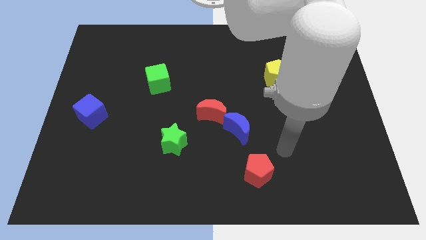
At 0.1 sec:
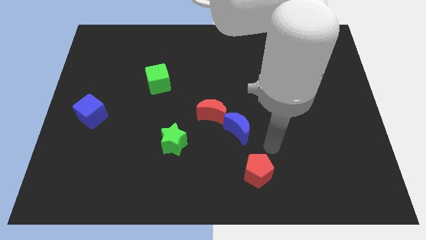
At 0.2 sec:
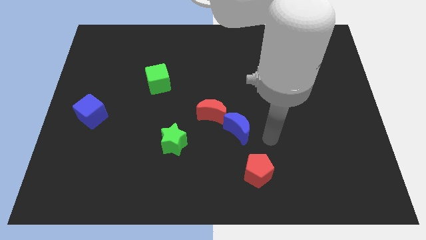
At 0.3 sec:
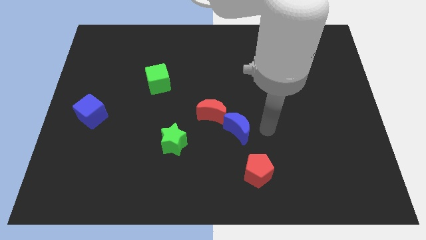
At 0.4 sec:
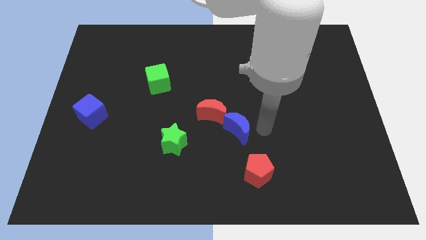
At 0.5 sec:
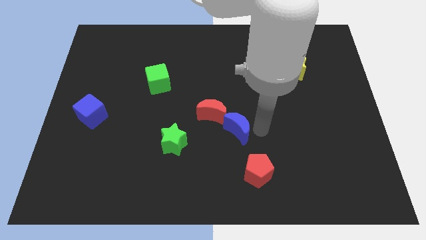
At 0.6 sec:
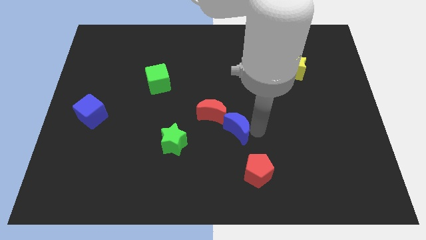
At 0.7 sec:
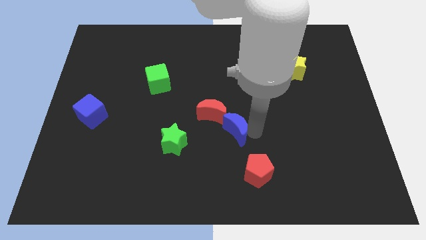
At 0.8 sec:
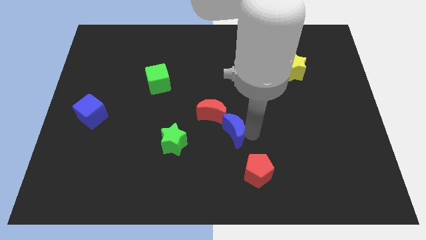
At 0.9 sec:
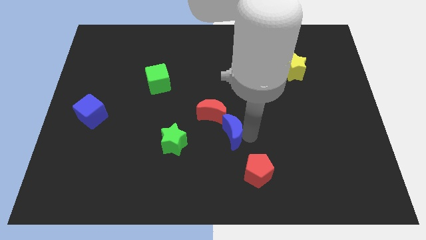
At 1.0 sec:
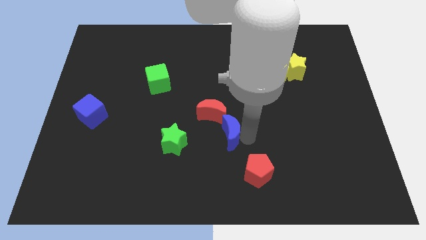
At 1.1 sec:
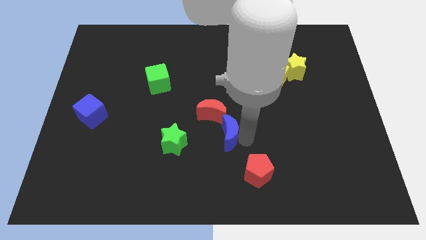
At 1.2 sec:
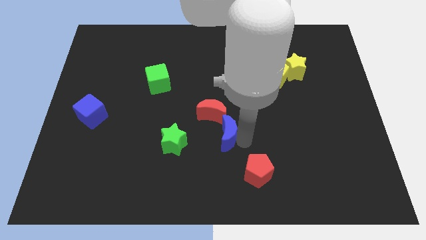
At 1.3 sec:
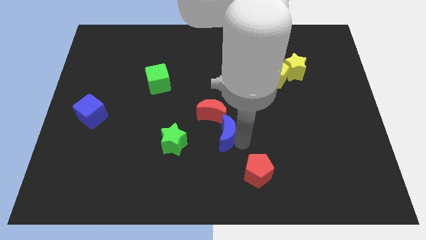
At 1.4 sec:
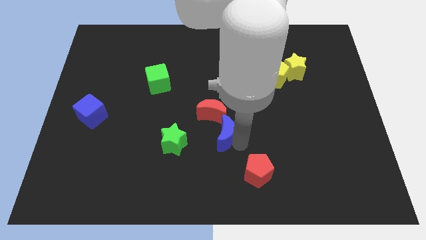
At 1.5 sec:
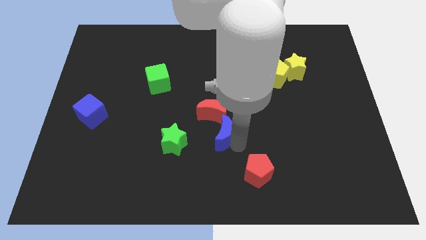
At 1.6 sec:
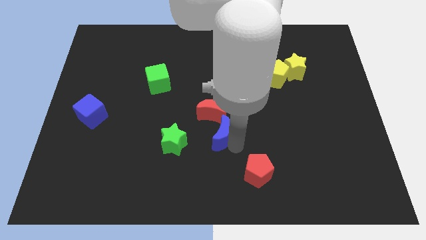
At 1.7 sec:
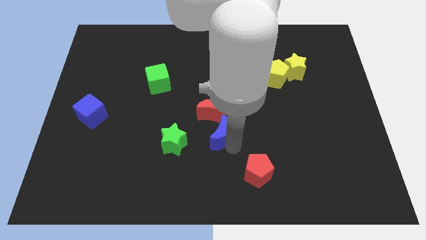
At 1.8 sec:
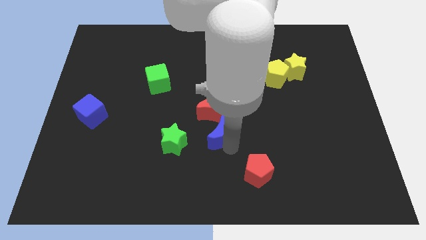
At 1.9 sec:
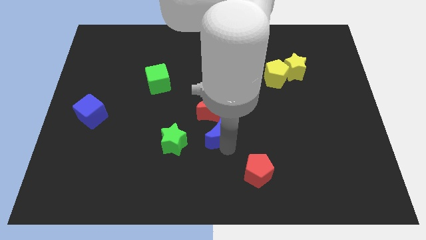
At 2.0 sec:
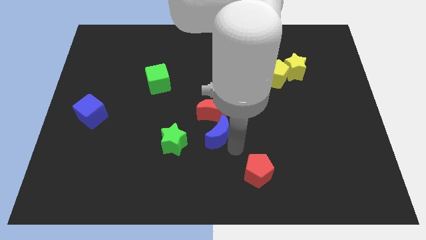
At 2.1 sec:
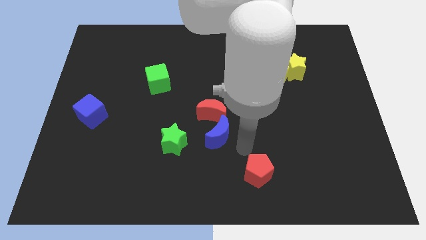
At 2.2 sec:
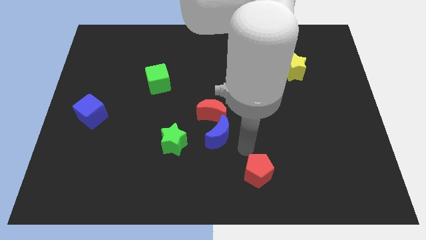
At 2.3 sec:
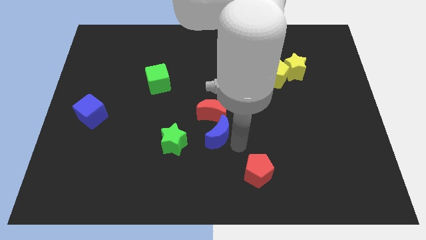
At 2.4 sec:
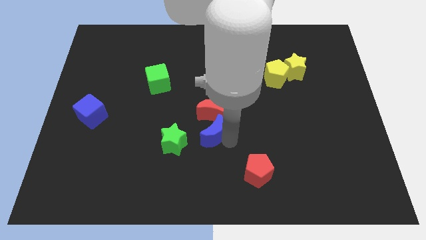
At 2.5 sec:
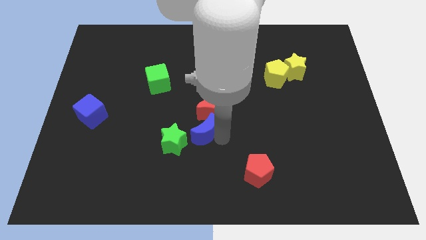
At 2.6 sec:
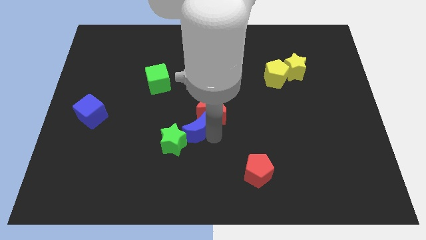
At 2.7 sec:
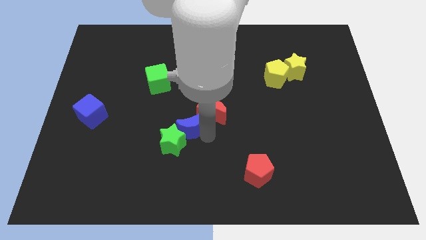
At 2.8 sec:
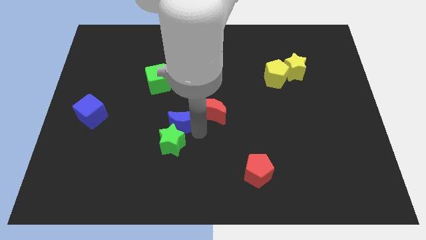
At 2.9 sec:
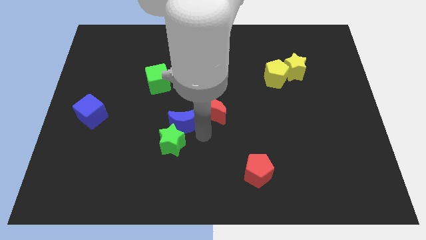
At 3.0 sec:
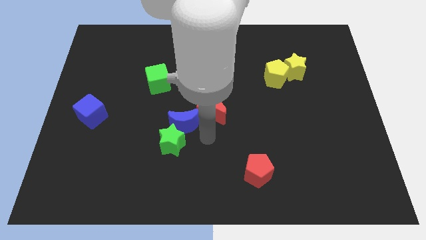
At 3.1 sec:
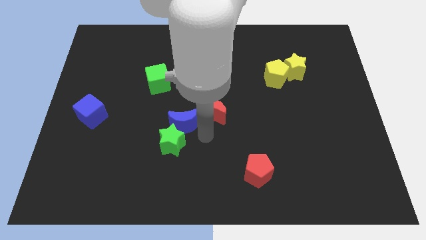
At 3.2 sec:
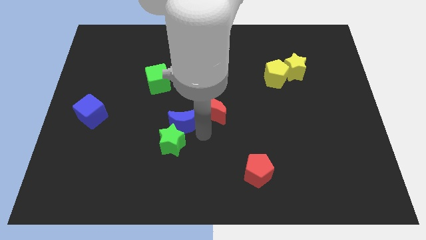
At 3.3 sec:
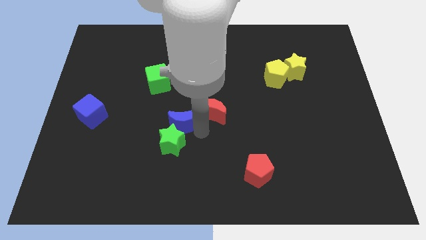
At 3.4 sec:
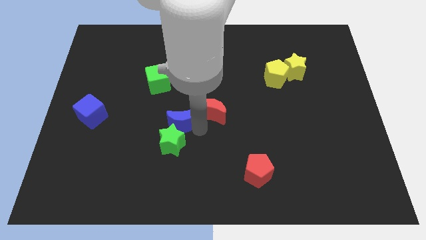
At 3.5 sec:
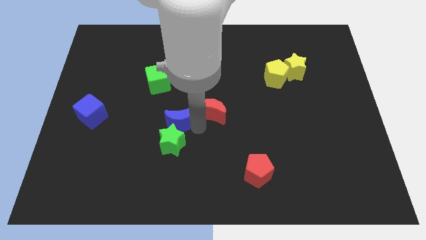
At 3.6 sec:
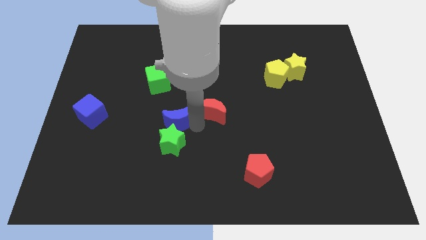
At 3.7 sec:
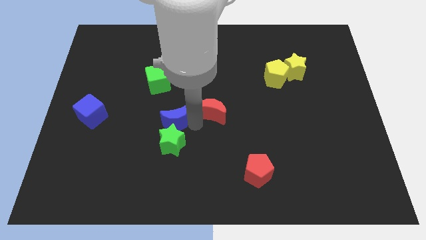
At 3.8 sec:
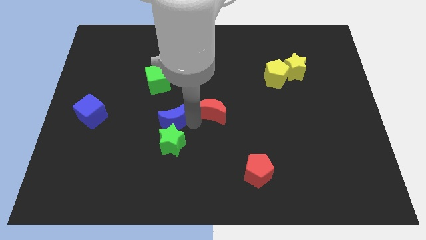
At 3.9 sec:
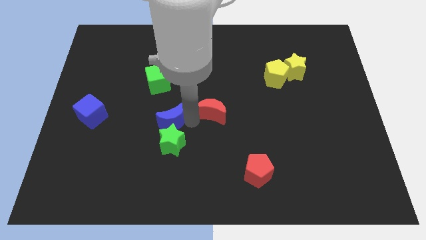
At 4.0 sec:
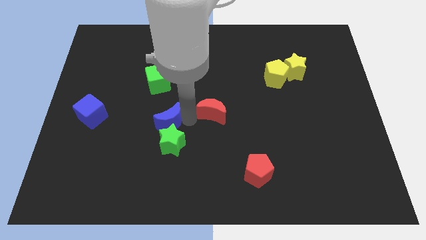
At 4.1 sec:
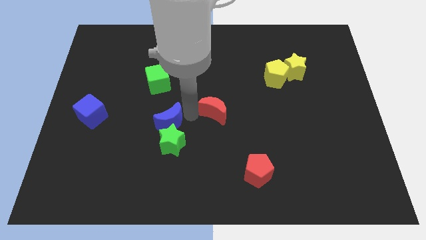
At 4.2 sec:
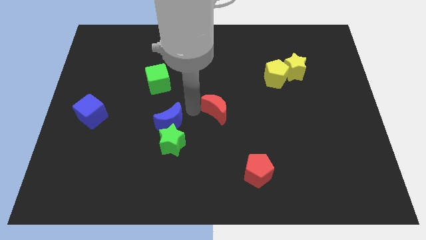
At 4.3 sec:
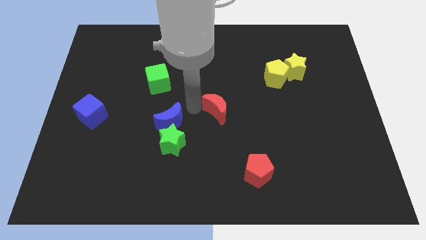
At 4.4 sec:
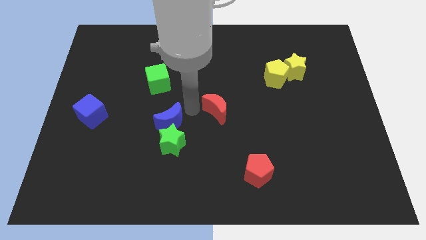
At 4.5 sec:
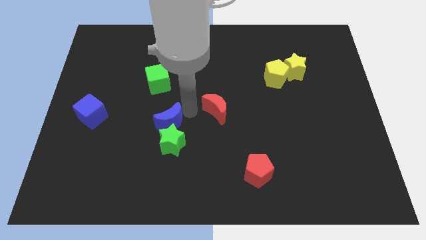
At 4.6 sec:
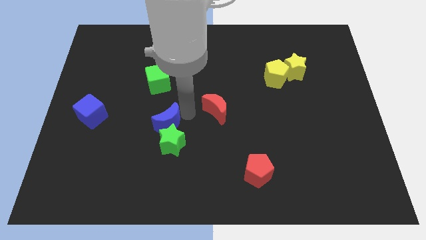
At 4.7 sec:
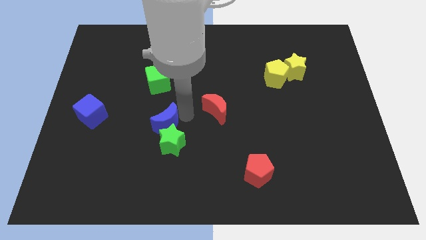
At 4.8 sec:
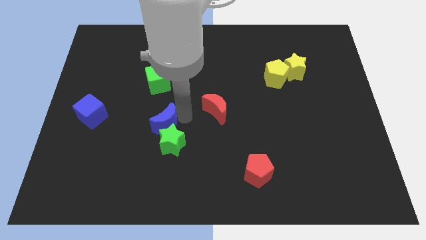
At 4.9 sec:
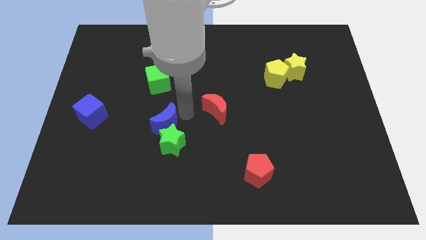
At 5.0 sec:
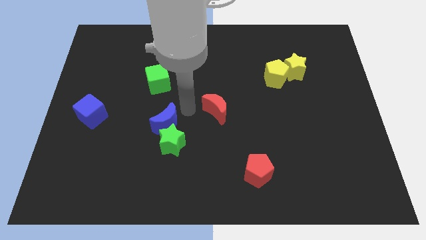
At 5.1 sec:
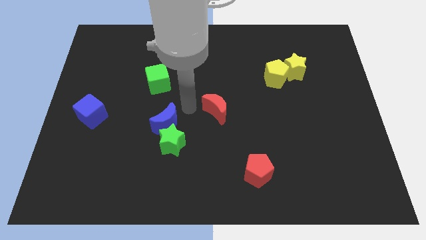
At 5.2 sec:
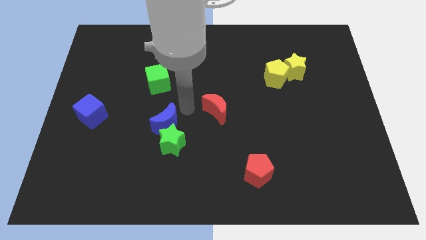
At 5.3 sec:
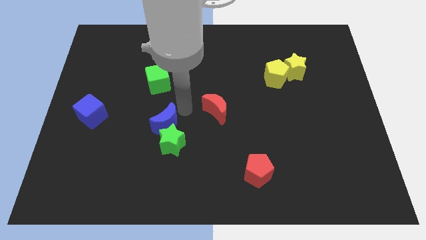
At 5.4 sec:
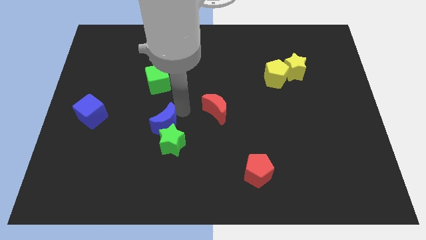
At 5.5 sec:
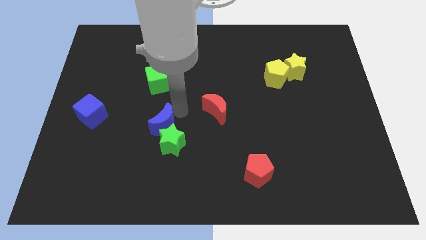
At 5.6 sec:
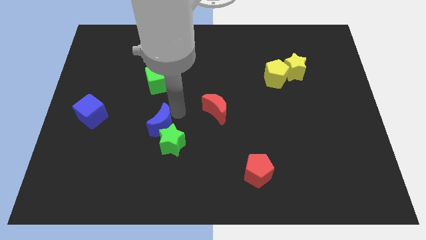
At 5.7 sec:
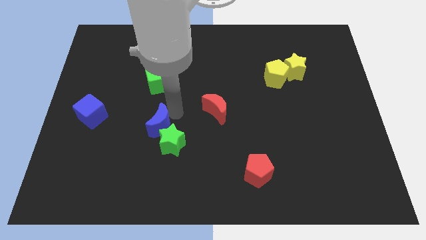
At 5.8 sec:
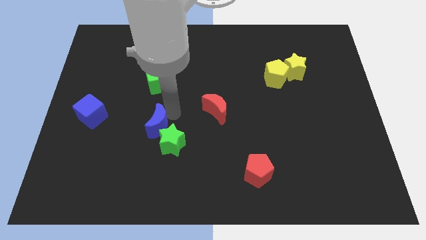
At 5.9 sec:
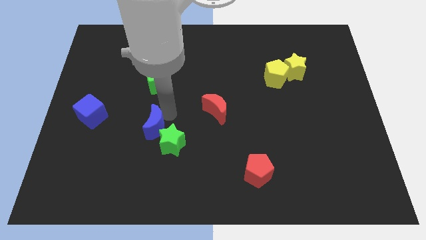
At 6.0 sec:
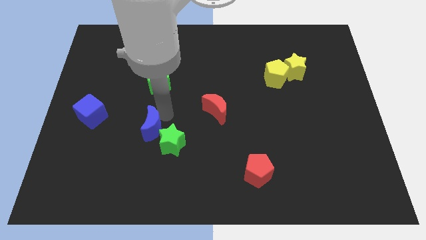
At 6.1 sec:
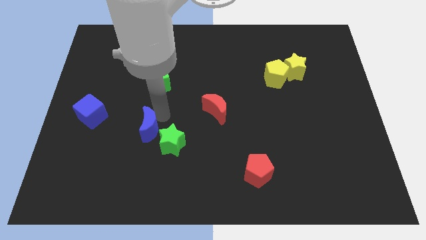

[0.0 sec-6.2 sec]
push the blue moon left

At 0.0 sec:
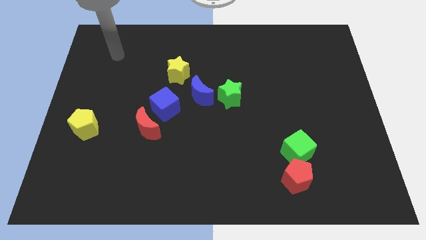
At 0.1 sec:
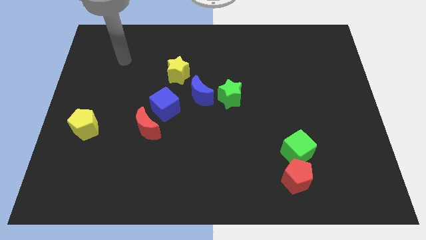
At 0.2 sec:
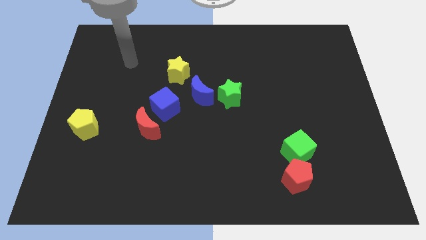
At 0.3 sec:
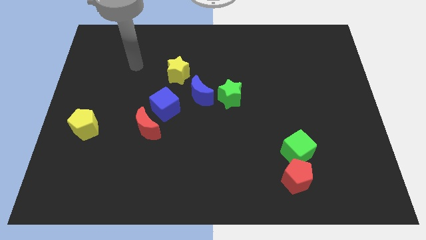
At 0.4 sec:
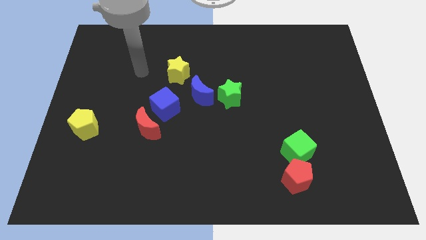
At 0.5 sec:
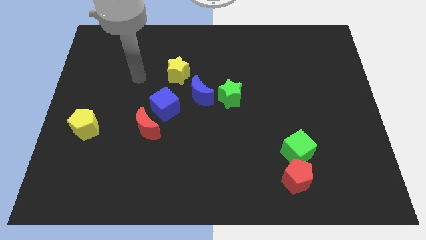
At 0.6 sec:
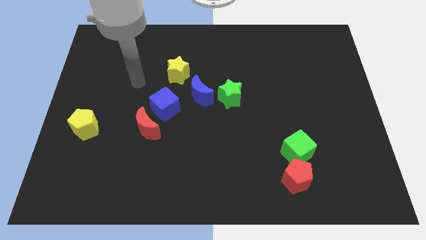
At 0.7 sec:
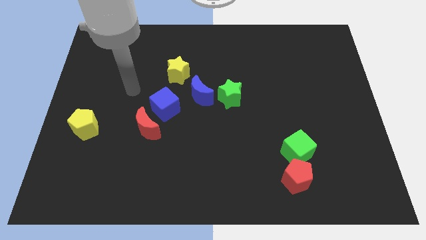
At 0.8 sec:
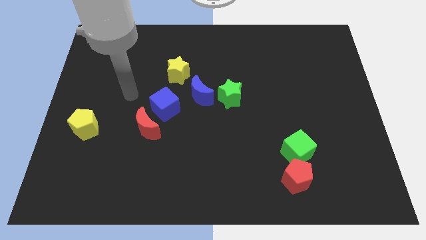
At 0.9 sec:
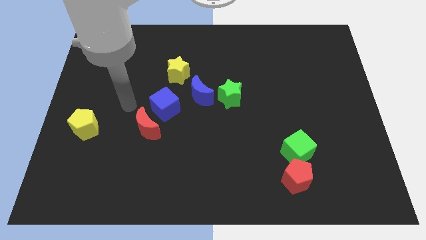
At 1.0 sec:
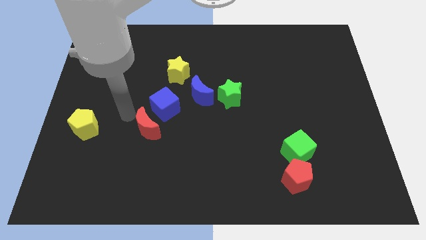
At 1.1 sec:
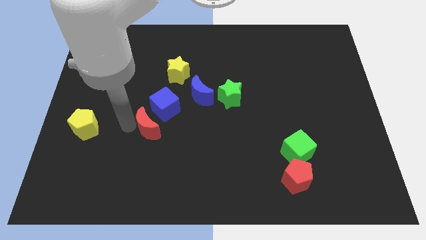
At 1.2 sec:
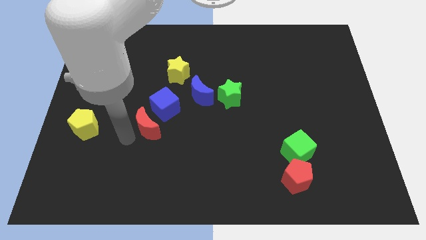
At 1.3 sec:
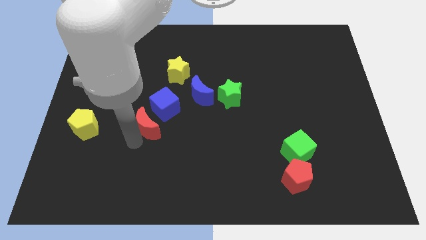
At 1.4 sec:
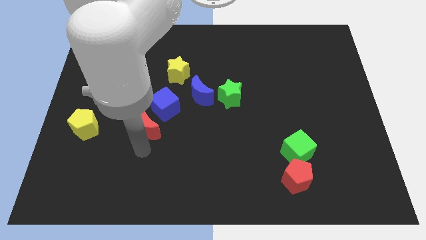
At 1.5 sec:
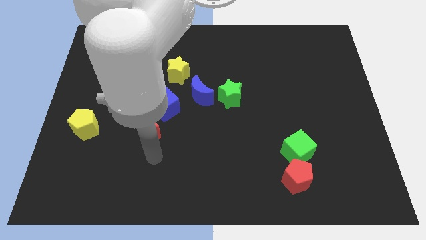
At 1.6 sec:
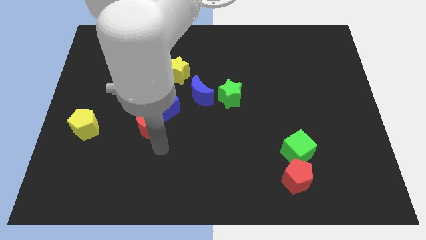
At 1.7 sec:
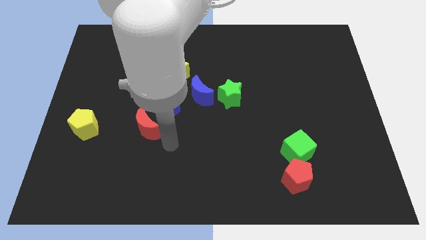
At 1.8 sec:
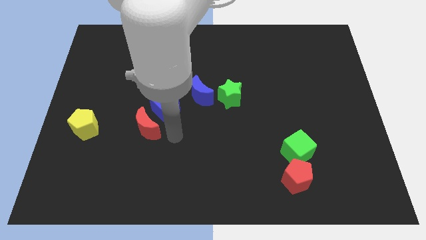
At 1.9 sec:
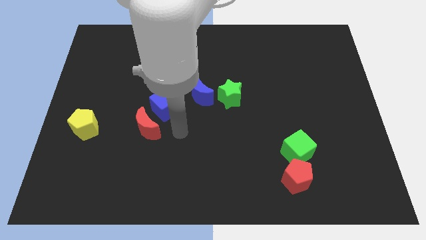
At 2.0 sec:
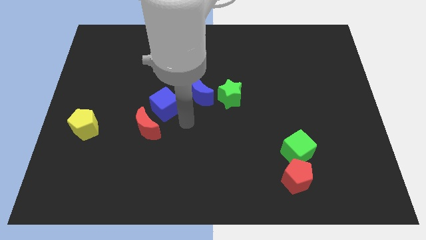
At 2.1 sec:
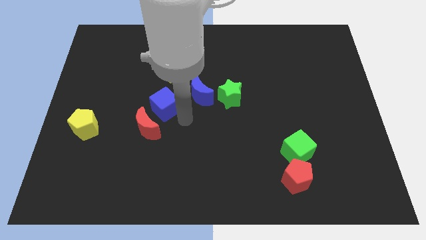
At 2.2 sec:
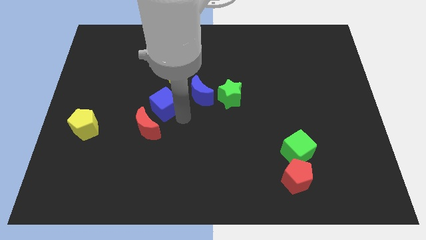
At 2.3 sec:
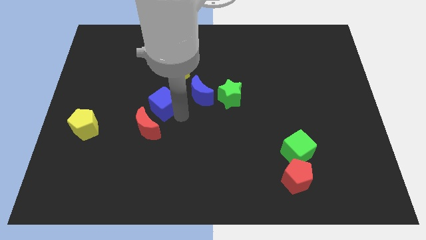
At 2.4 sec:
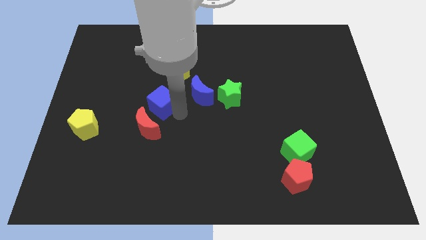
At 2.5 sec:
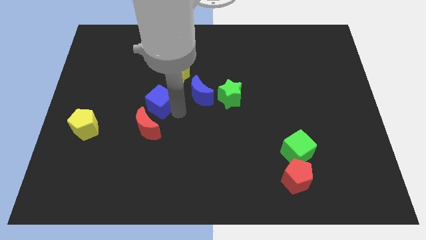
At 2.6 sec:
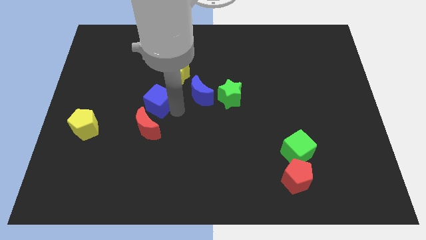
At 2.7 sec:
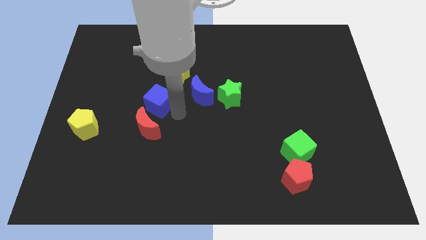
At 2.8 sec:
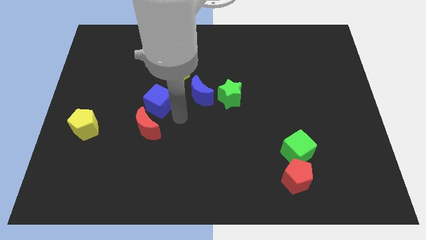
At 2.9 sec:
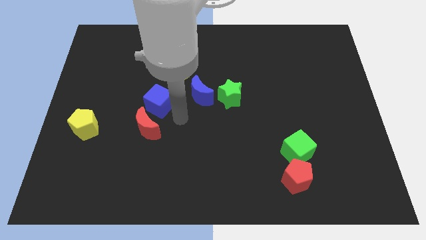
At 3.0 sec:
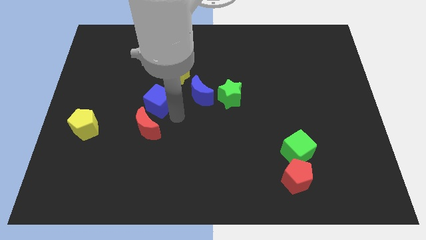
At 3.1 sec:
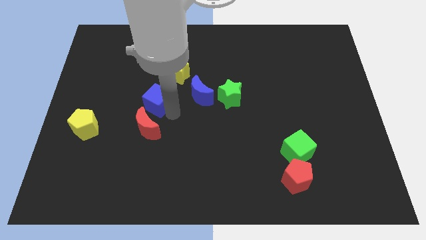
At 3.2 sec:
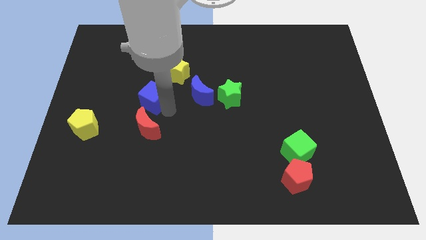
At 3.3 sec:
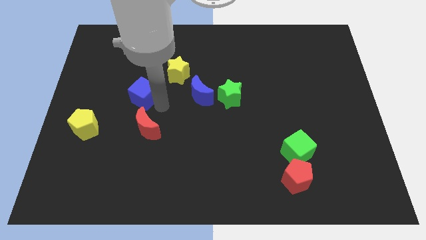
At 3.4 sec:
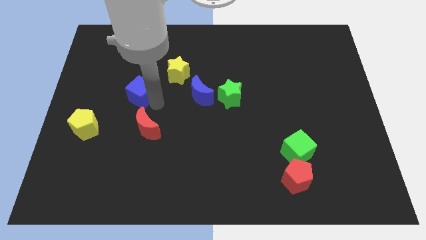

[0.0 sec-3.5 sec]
move the blue cube up and then left slightly
